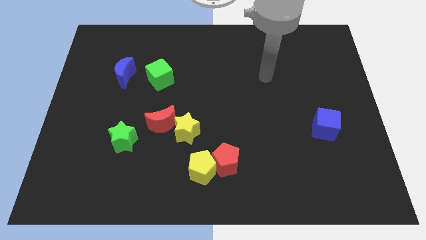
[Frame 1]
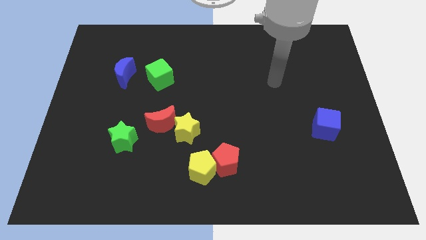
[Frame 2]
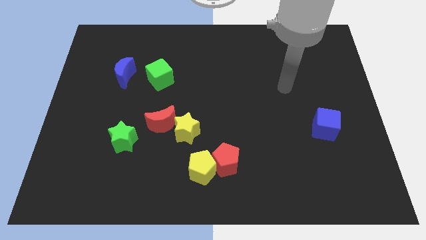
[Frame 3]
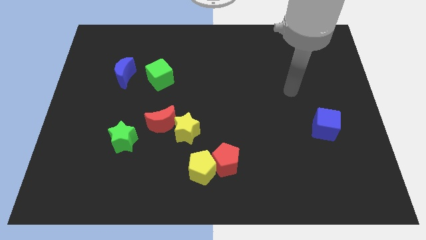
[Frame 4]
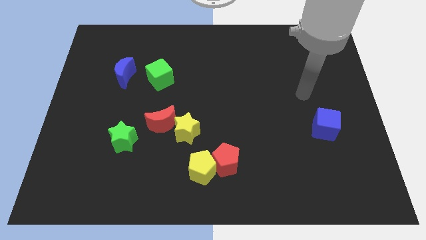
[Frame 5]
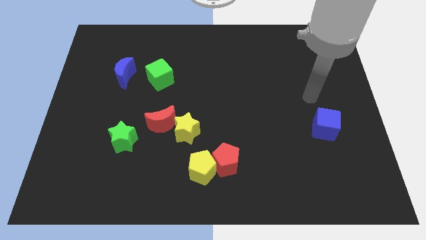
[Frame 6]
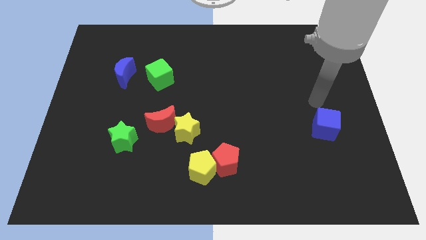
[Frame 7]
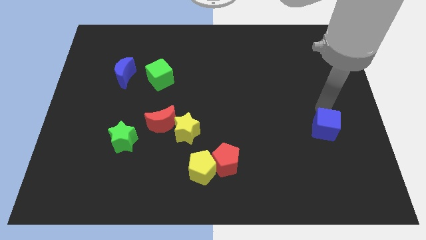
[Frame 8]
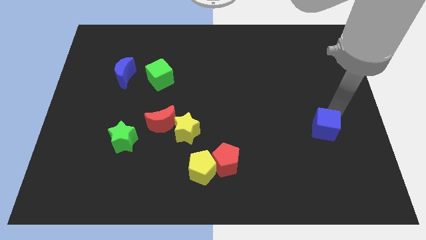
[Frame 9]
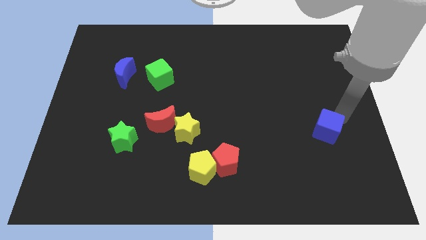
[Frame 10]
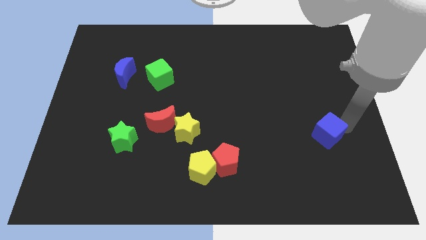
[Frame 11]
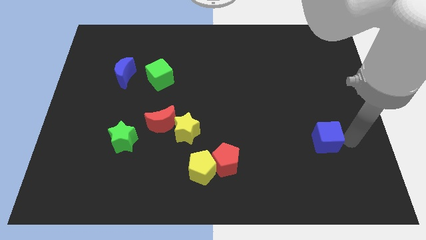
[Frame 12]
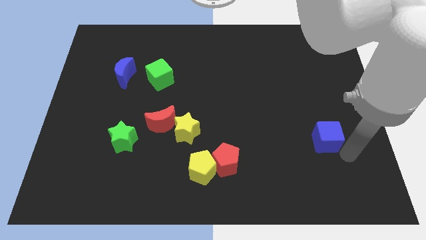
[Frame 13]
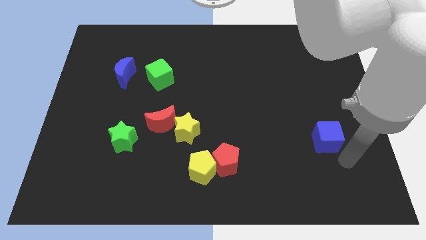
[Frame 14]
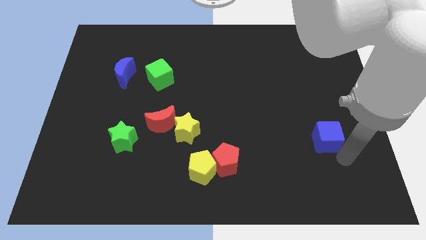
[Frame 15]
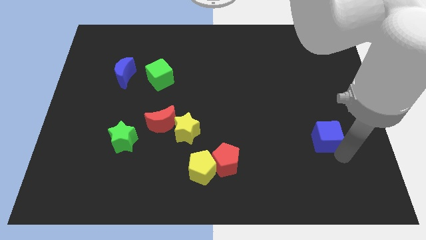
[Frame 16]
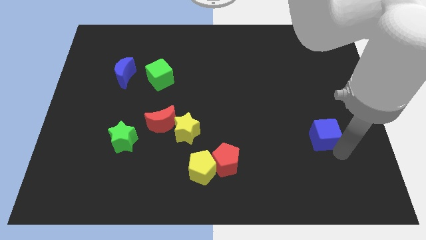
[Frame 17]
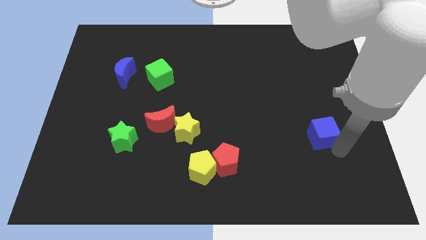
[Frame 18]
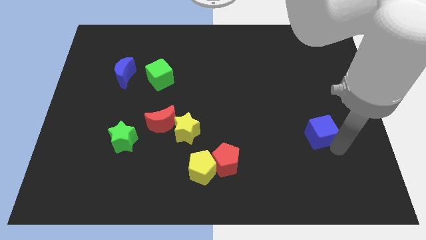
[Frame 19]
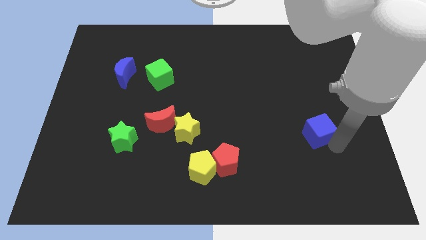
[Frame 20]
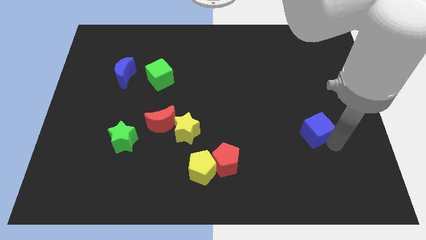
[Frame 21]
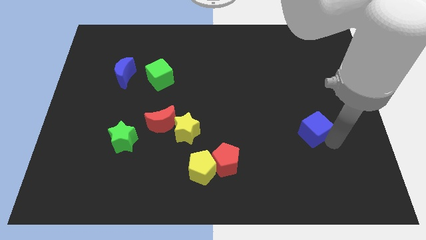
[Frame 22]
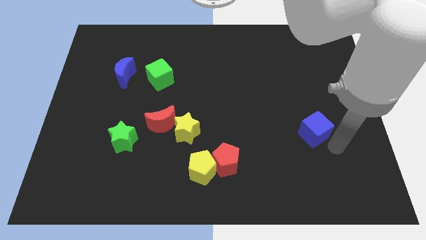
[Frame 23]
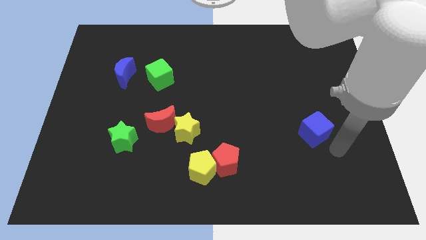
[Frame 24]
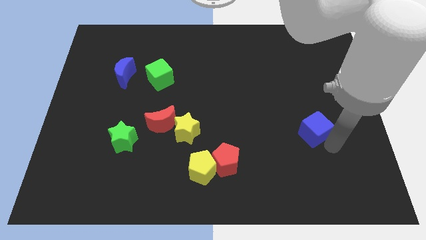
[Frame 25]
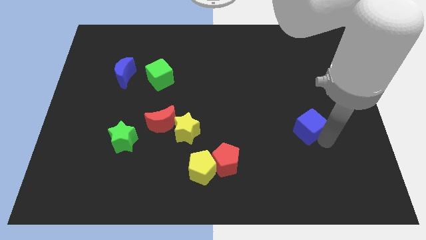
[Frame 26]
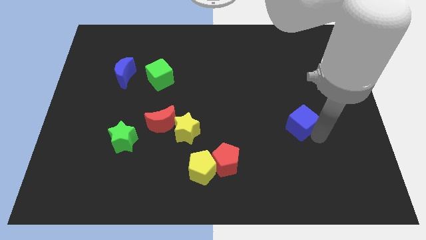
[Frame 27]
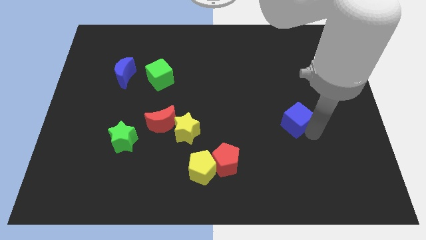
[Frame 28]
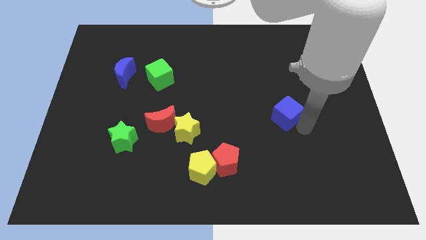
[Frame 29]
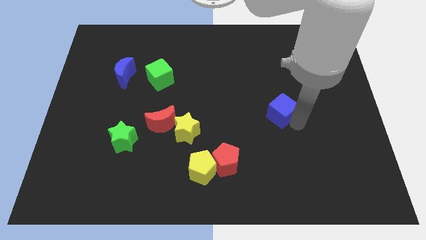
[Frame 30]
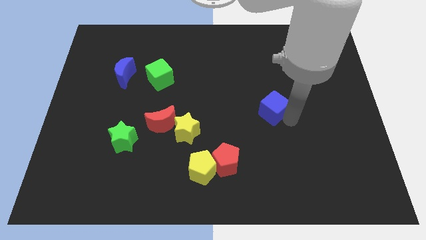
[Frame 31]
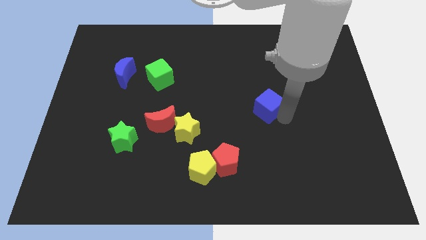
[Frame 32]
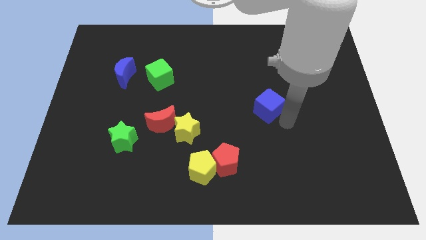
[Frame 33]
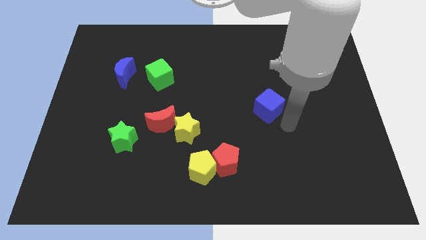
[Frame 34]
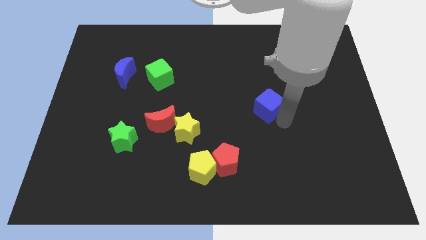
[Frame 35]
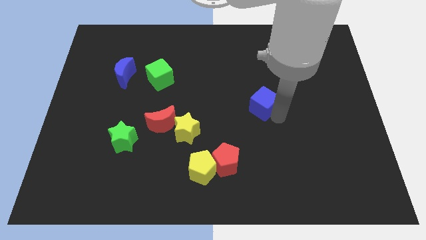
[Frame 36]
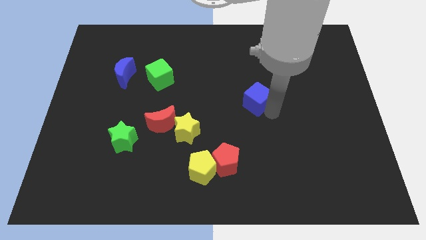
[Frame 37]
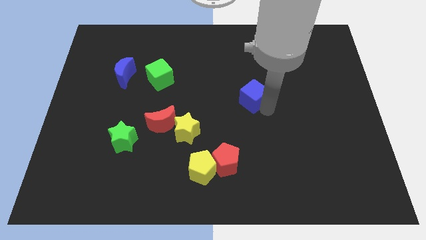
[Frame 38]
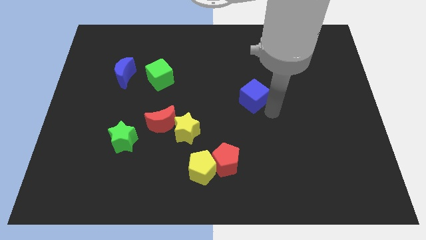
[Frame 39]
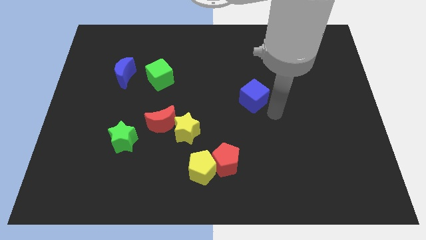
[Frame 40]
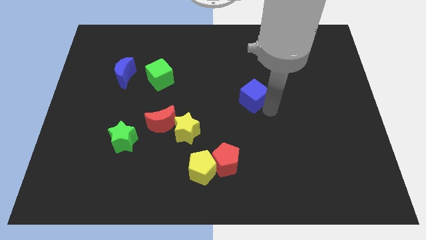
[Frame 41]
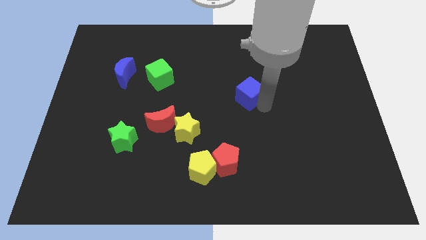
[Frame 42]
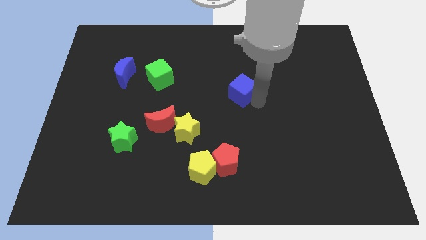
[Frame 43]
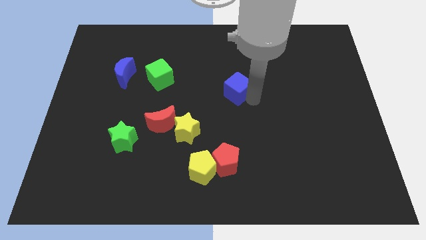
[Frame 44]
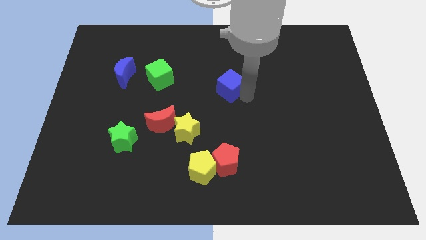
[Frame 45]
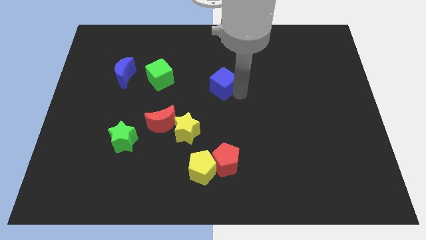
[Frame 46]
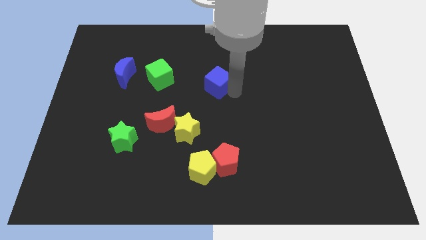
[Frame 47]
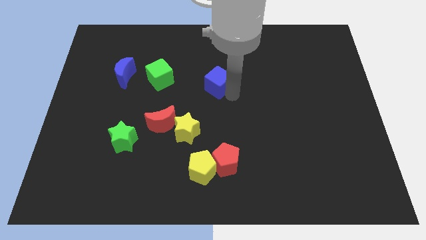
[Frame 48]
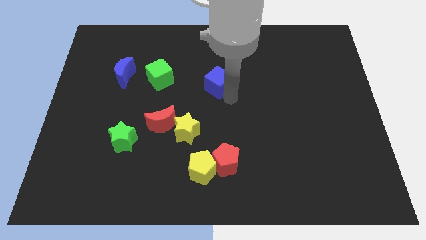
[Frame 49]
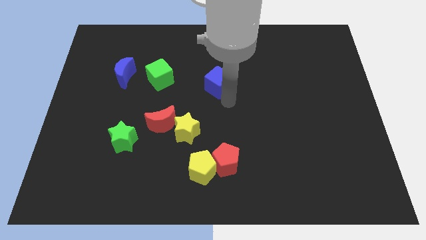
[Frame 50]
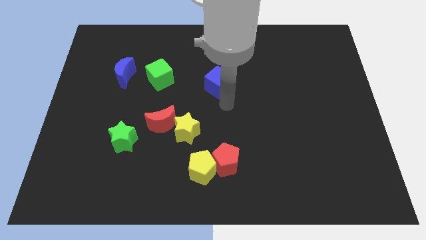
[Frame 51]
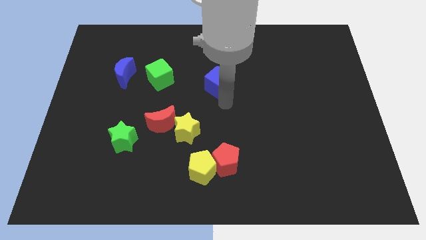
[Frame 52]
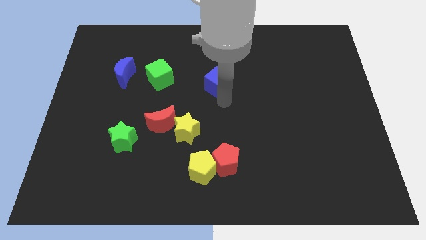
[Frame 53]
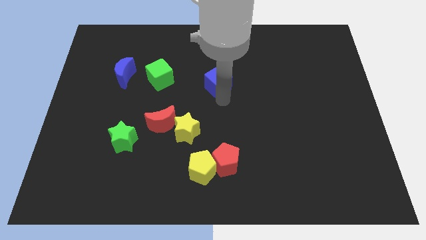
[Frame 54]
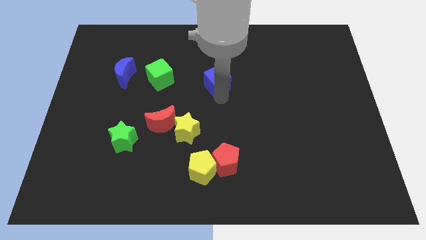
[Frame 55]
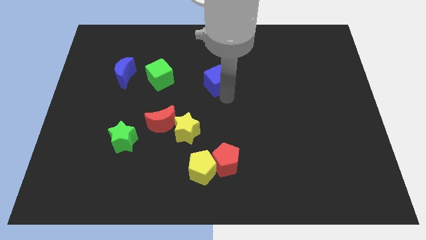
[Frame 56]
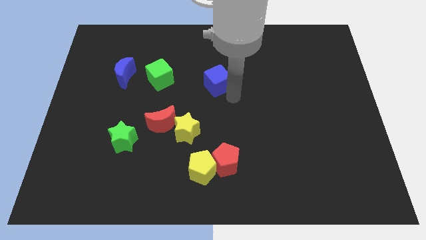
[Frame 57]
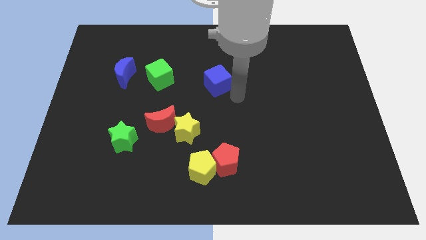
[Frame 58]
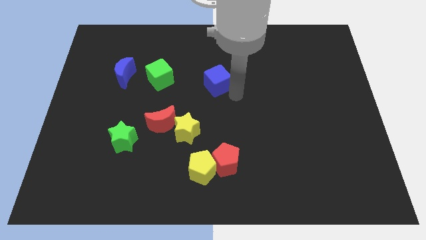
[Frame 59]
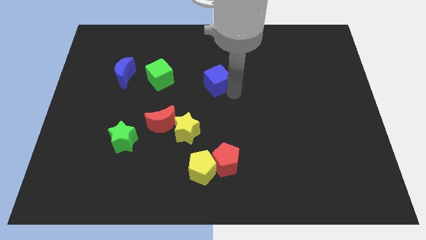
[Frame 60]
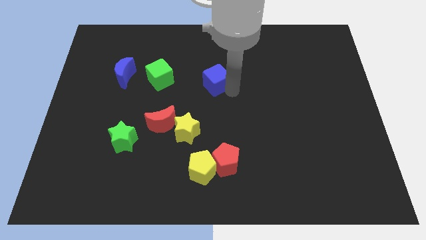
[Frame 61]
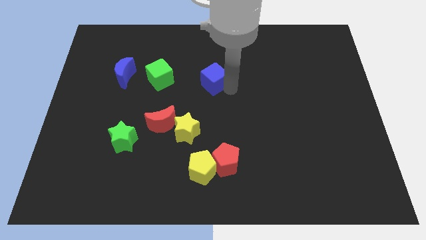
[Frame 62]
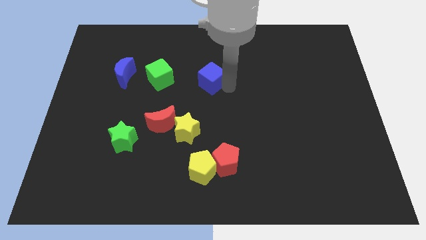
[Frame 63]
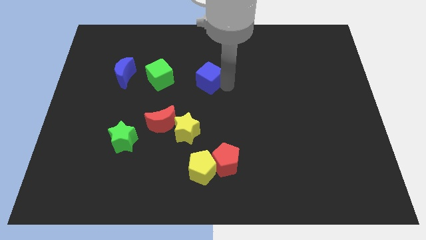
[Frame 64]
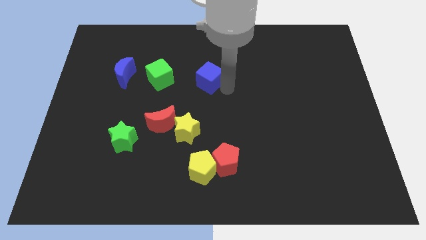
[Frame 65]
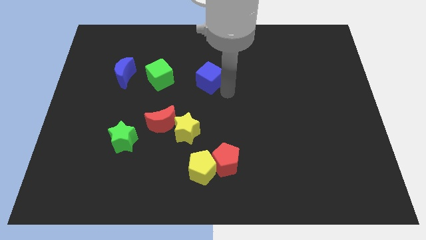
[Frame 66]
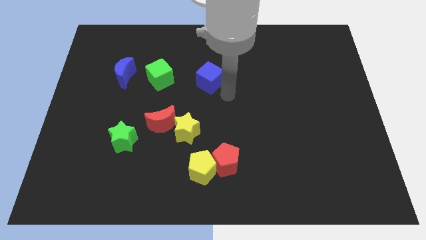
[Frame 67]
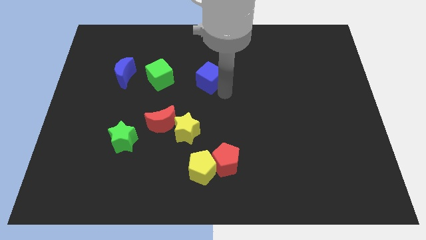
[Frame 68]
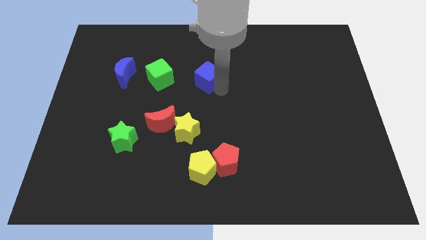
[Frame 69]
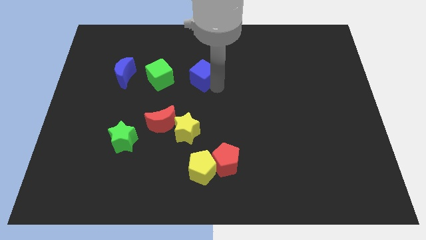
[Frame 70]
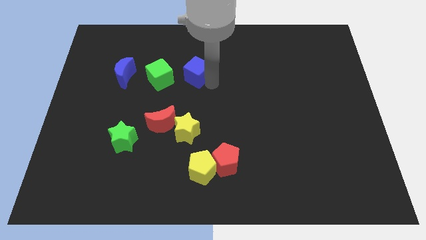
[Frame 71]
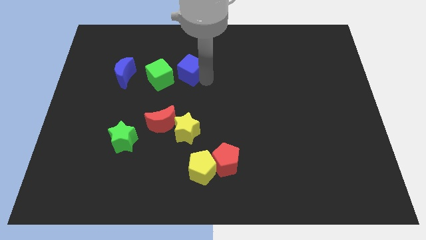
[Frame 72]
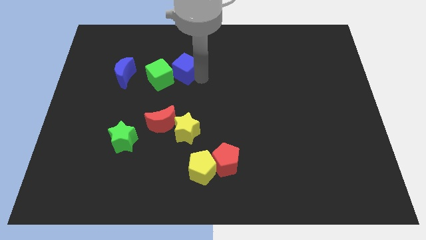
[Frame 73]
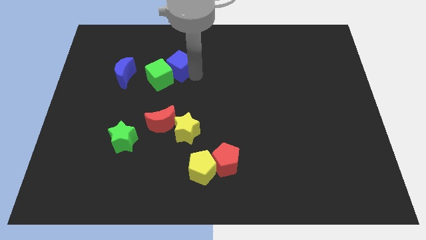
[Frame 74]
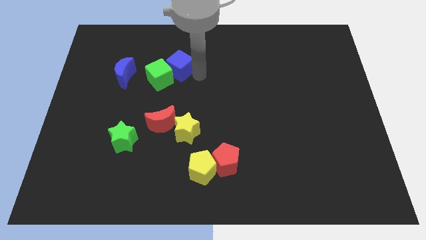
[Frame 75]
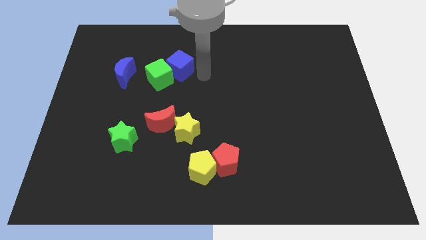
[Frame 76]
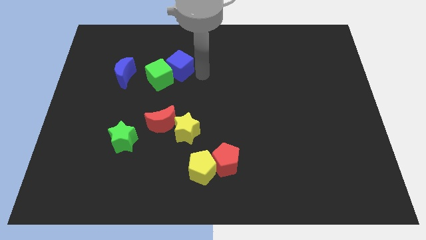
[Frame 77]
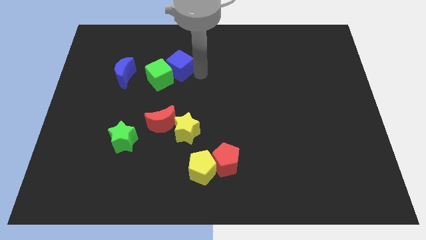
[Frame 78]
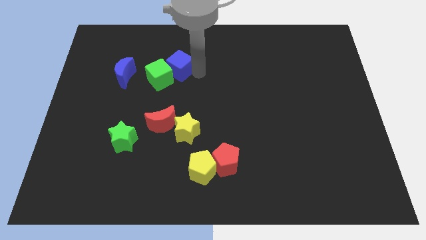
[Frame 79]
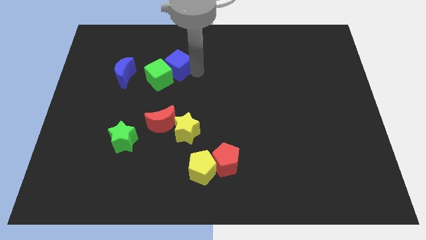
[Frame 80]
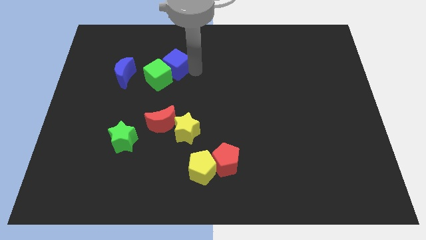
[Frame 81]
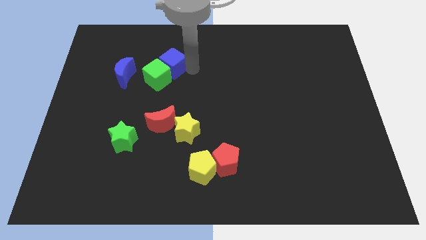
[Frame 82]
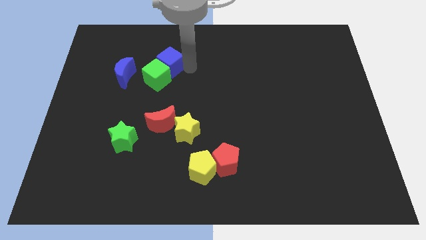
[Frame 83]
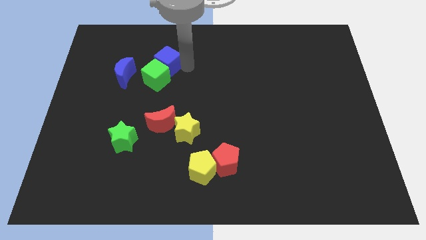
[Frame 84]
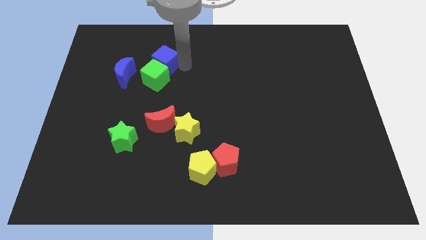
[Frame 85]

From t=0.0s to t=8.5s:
slide the blue cube to the top right of the blue moon
